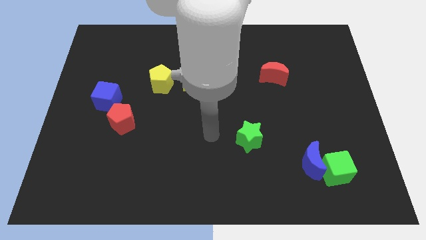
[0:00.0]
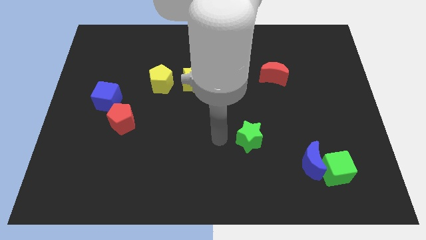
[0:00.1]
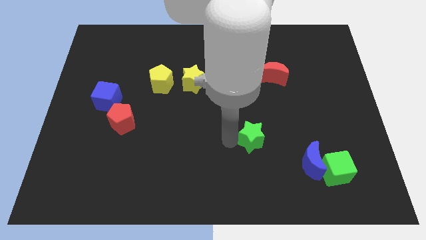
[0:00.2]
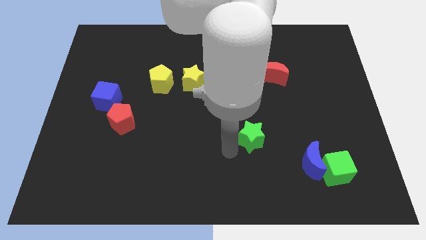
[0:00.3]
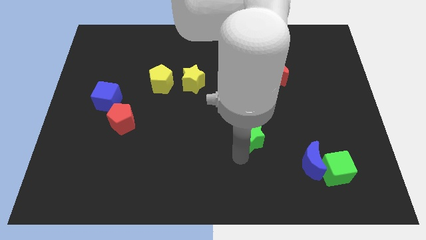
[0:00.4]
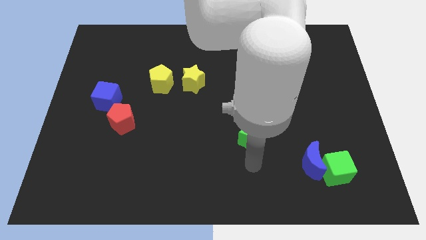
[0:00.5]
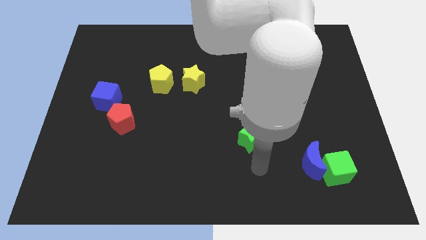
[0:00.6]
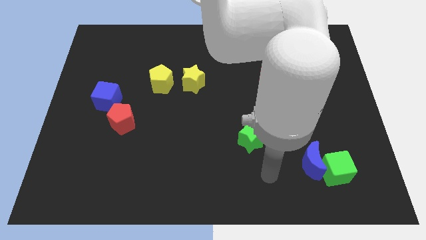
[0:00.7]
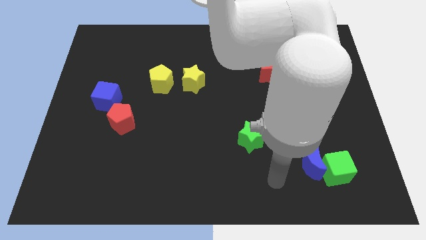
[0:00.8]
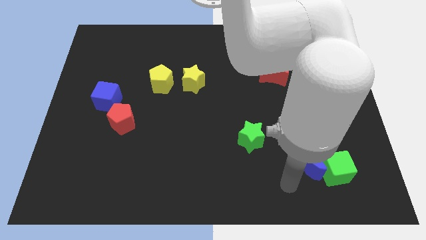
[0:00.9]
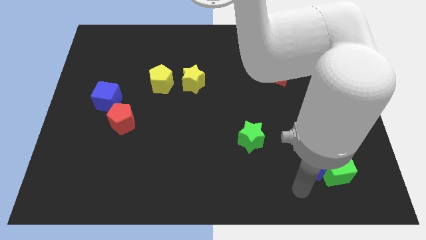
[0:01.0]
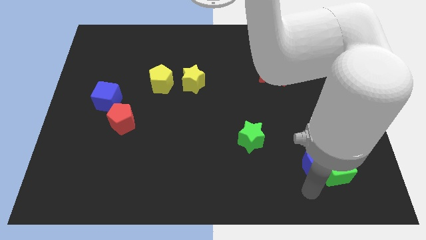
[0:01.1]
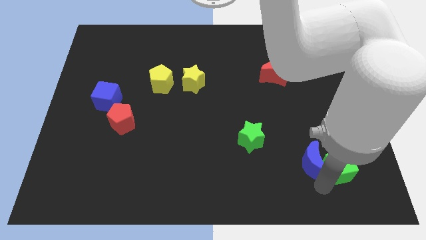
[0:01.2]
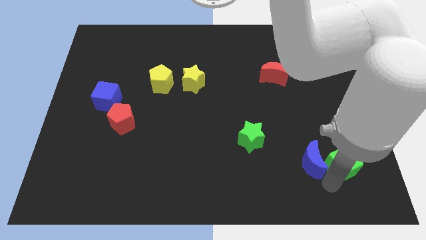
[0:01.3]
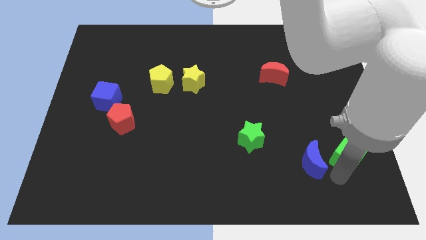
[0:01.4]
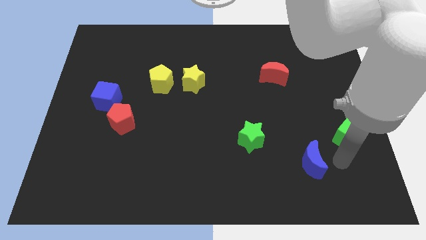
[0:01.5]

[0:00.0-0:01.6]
pull the blue moon apart from the green cube

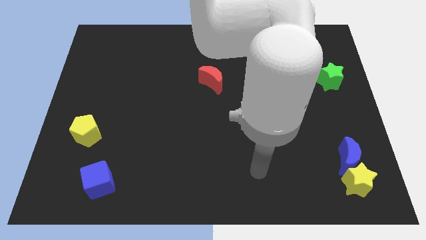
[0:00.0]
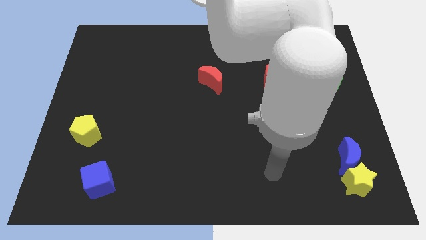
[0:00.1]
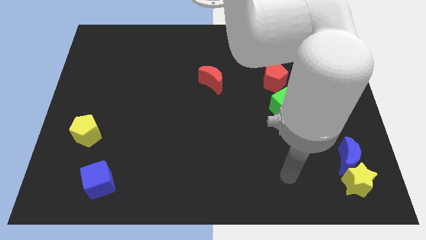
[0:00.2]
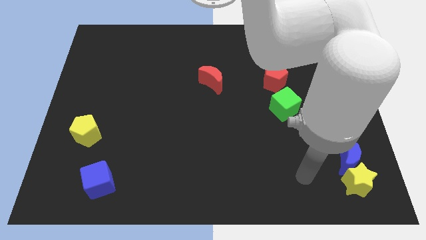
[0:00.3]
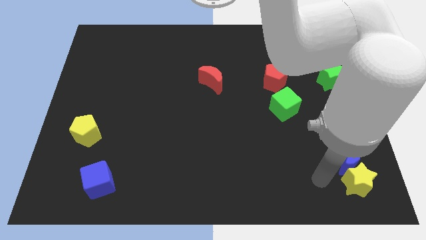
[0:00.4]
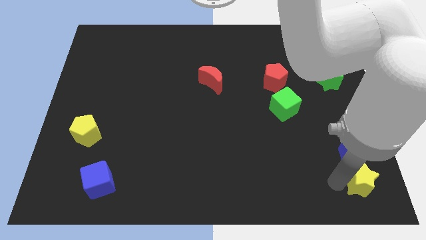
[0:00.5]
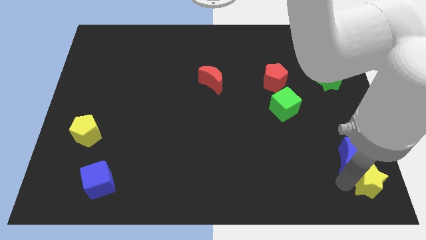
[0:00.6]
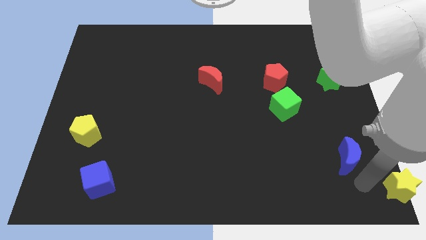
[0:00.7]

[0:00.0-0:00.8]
separate the blue moon from the yellow star

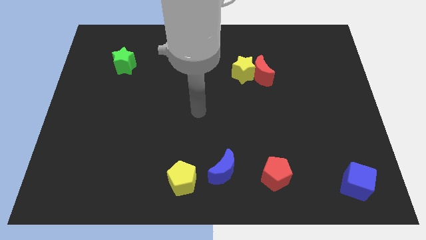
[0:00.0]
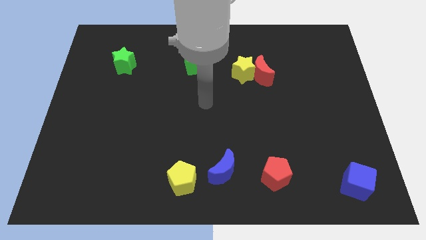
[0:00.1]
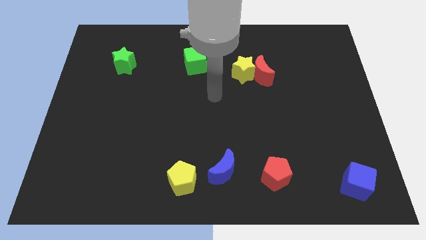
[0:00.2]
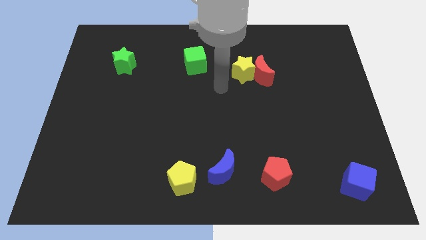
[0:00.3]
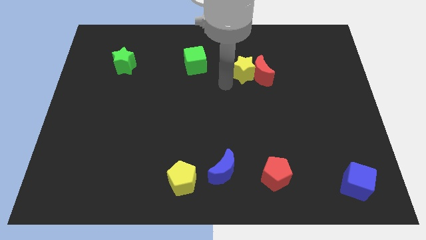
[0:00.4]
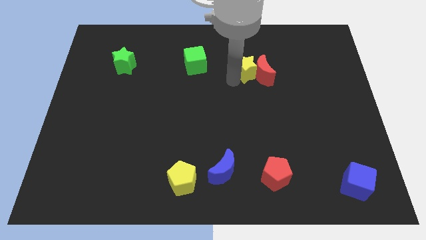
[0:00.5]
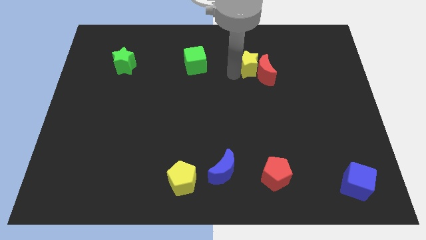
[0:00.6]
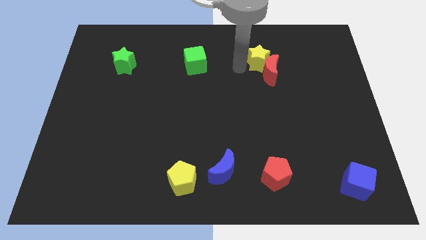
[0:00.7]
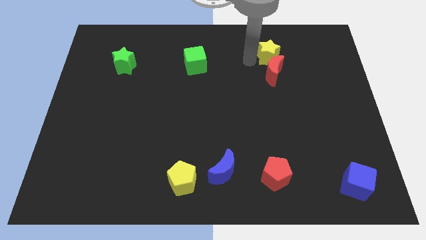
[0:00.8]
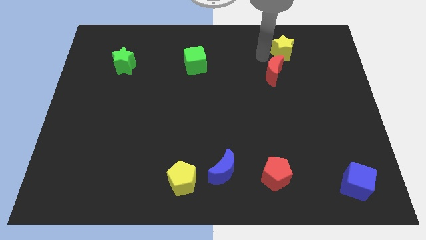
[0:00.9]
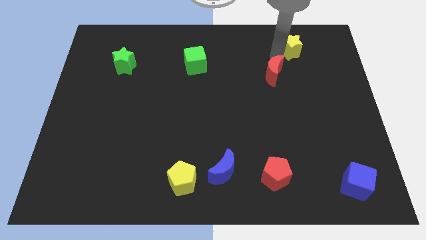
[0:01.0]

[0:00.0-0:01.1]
separate the red moon from the yellow star

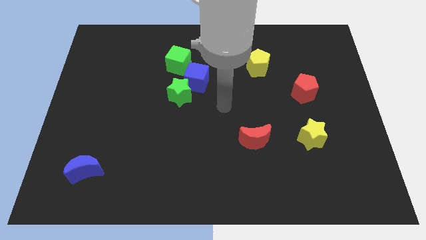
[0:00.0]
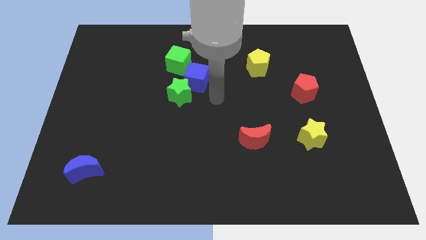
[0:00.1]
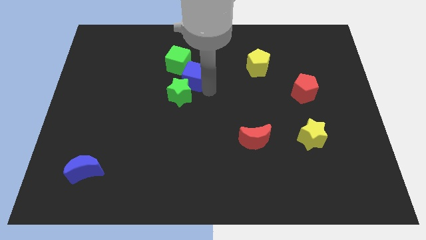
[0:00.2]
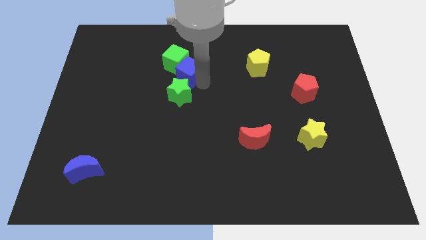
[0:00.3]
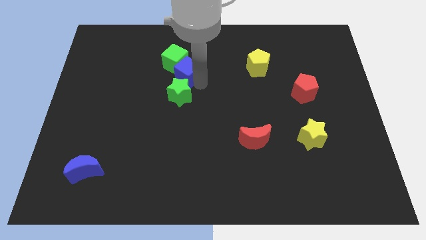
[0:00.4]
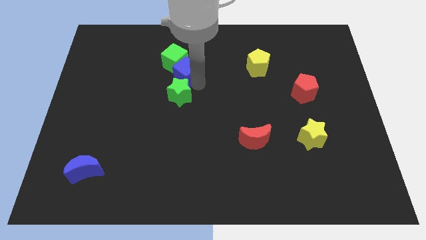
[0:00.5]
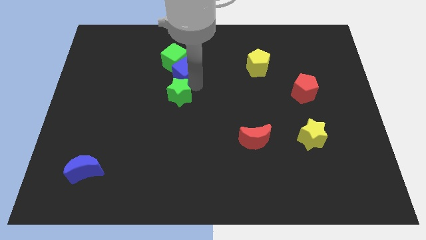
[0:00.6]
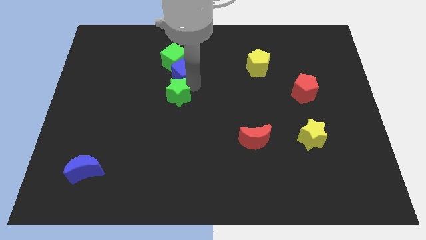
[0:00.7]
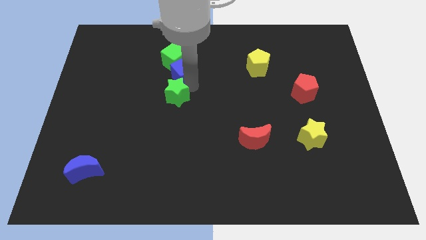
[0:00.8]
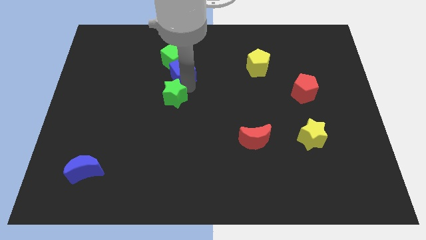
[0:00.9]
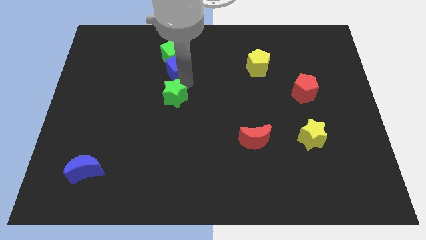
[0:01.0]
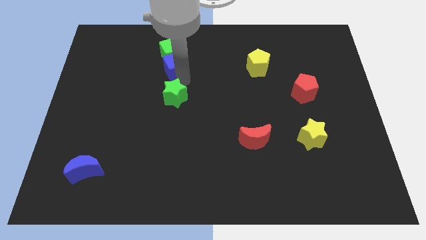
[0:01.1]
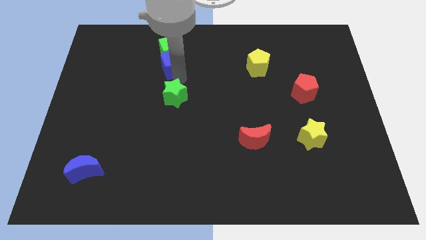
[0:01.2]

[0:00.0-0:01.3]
pull the green star apart from the blue cube

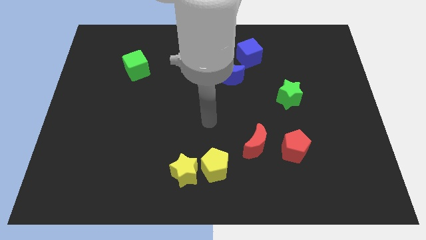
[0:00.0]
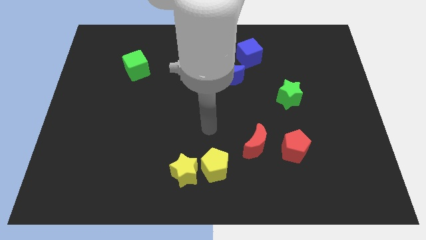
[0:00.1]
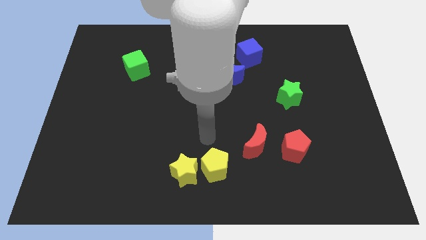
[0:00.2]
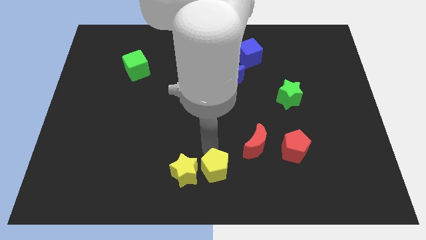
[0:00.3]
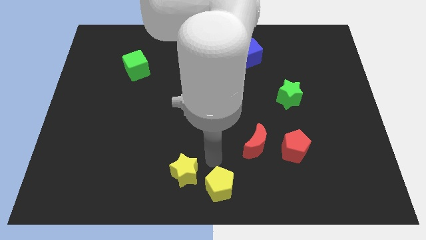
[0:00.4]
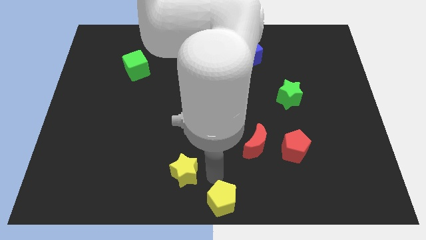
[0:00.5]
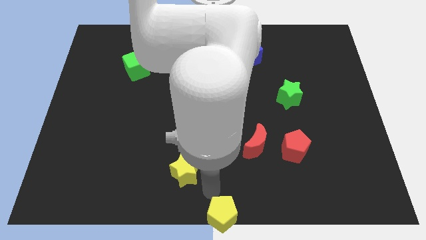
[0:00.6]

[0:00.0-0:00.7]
move the yellow star away from the yellow pentagon

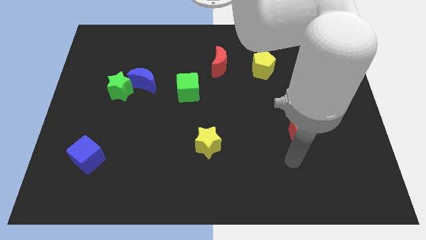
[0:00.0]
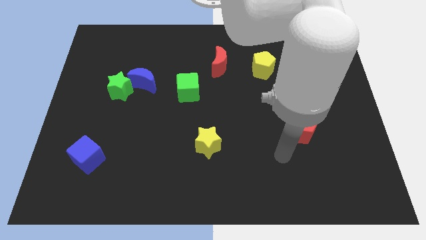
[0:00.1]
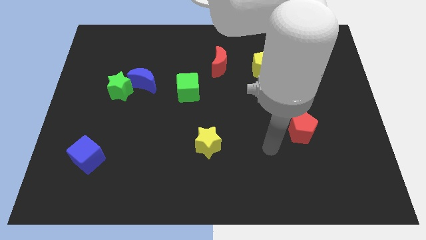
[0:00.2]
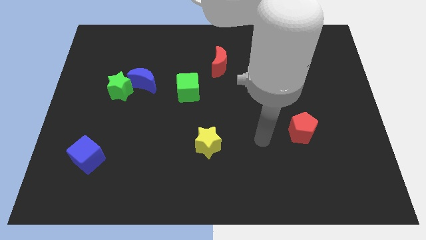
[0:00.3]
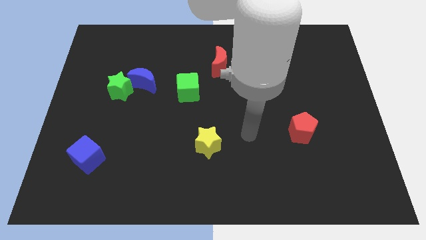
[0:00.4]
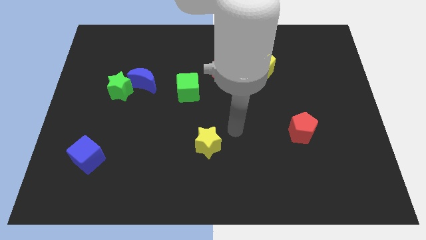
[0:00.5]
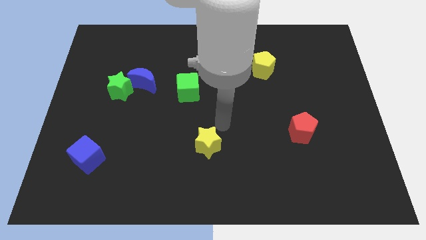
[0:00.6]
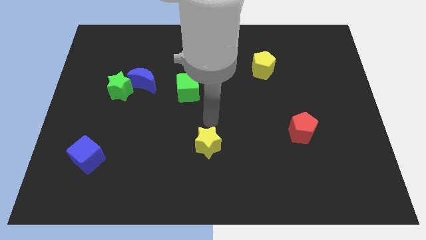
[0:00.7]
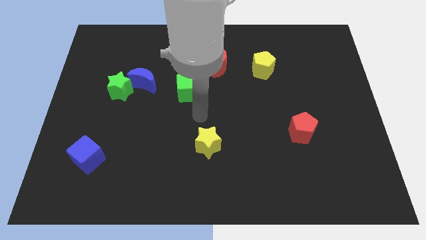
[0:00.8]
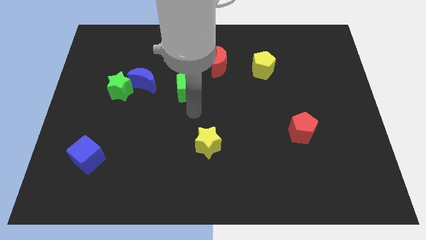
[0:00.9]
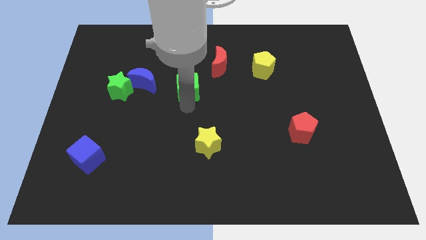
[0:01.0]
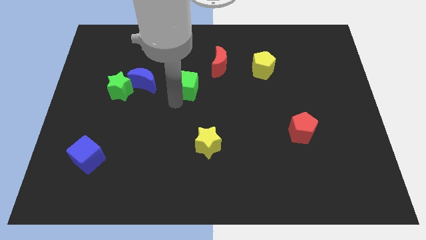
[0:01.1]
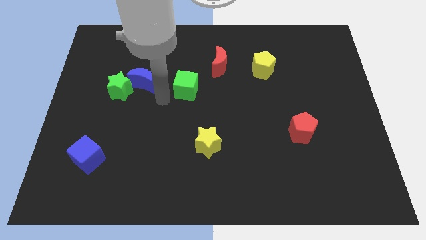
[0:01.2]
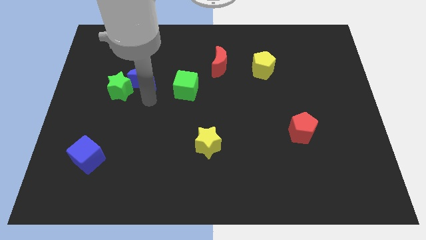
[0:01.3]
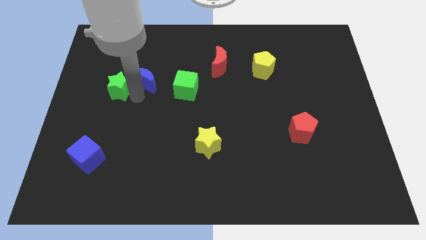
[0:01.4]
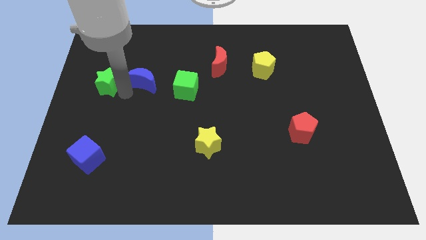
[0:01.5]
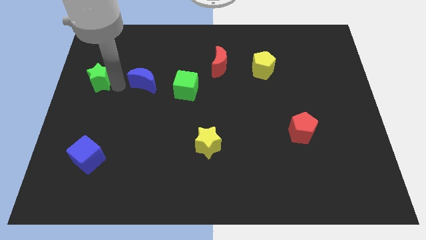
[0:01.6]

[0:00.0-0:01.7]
separate the blue moon from the green star

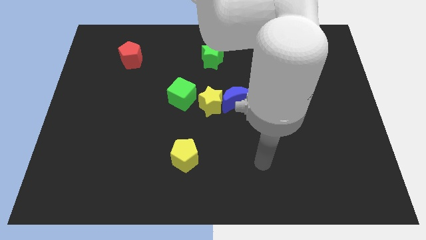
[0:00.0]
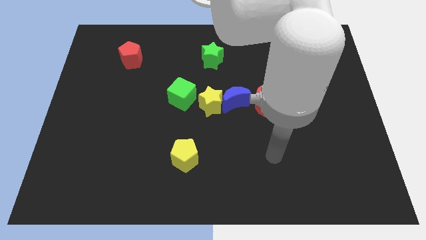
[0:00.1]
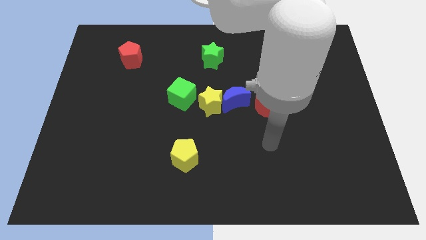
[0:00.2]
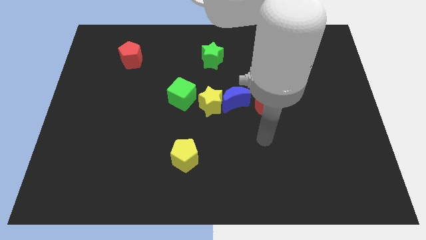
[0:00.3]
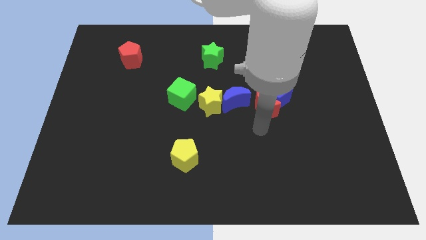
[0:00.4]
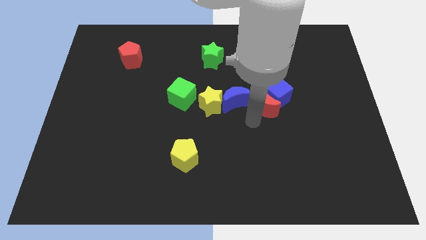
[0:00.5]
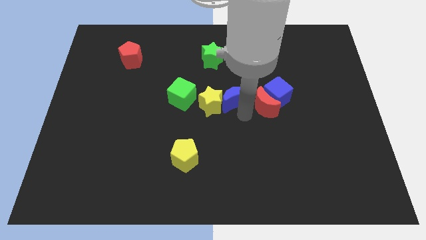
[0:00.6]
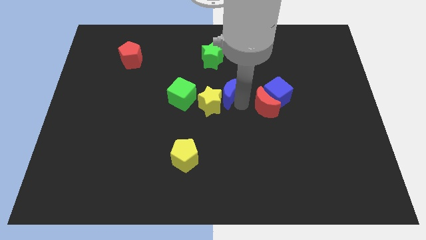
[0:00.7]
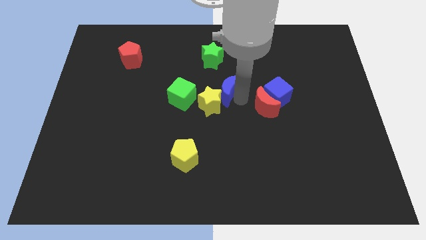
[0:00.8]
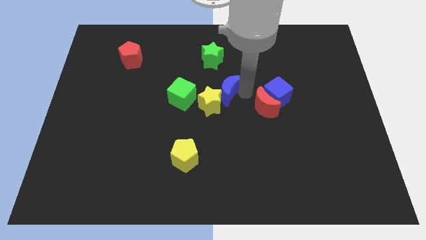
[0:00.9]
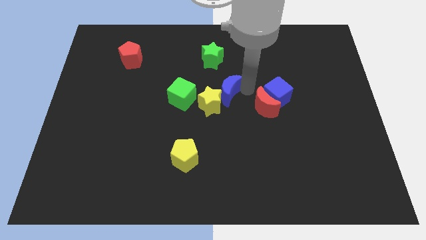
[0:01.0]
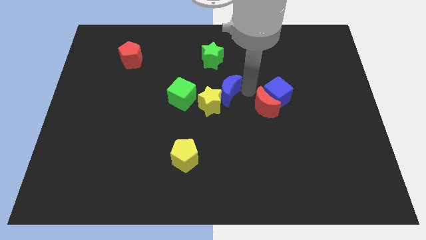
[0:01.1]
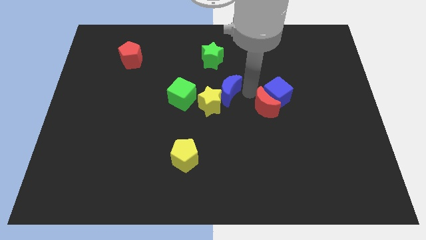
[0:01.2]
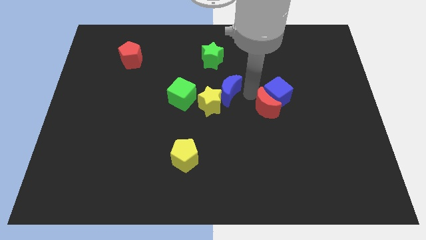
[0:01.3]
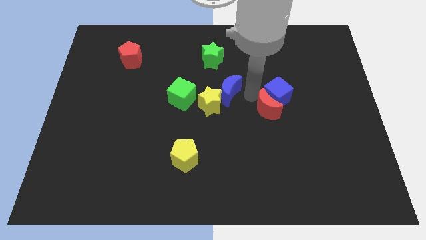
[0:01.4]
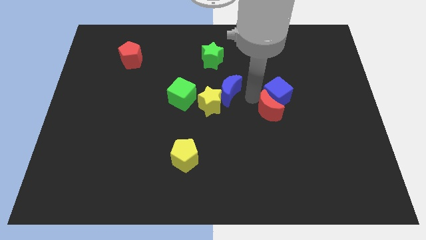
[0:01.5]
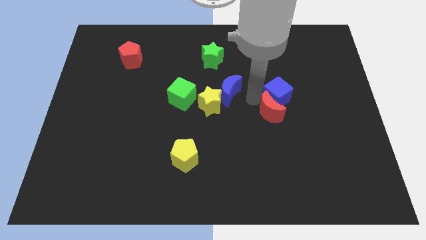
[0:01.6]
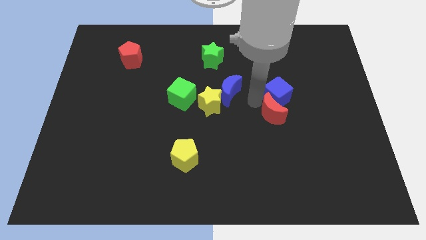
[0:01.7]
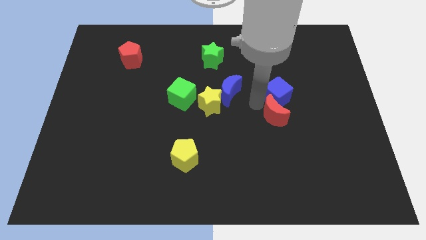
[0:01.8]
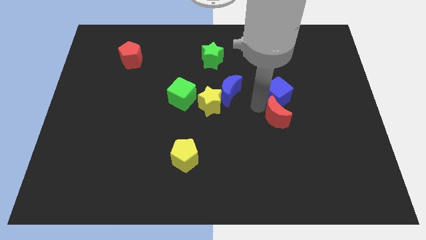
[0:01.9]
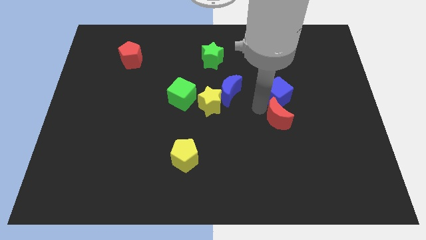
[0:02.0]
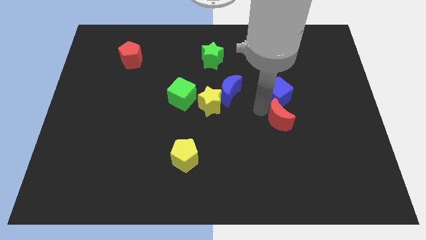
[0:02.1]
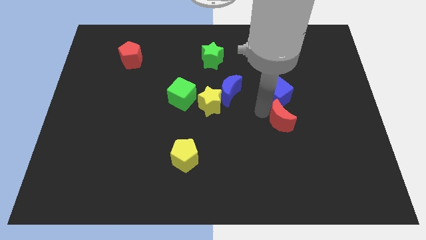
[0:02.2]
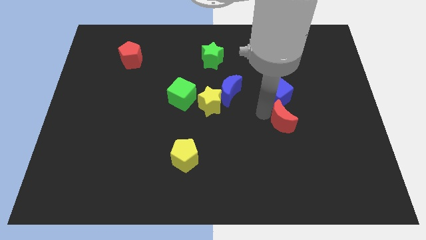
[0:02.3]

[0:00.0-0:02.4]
pull the red moon apart from the blue cube and blue moon
